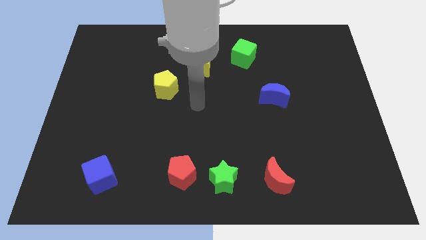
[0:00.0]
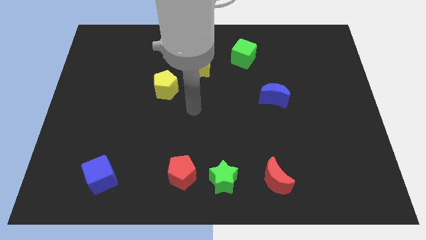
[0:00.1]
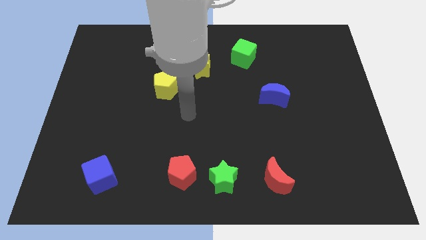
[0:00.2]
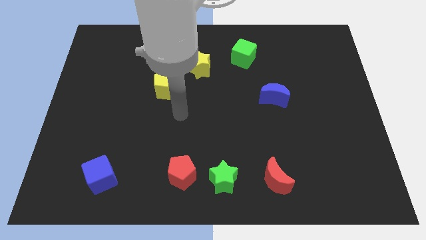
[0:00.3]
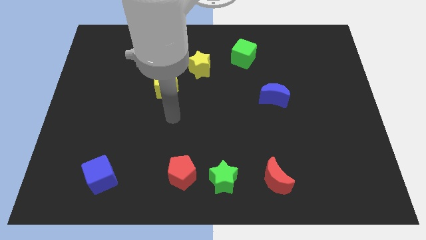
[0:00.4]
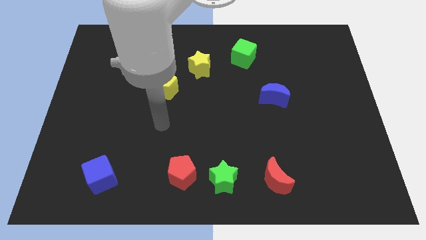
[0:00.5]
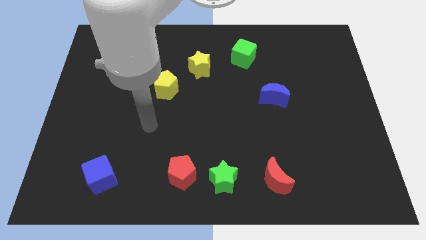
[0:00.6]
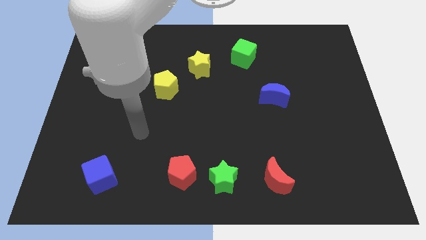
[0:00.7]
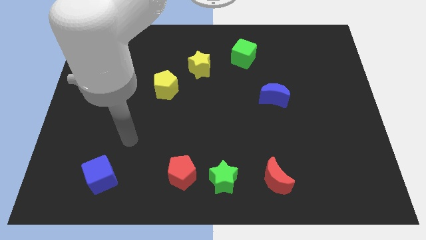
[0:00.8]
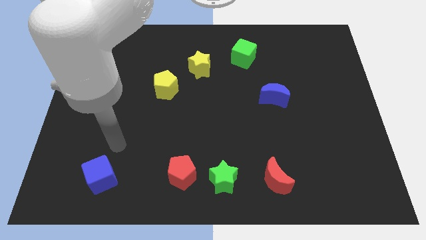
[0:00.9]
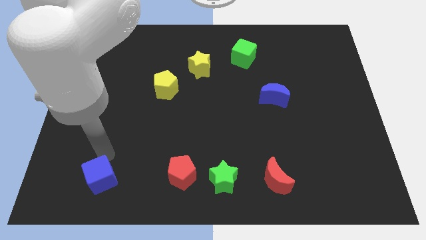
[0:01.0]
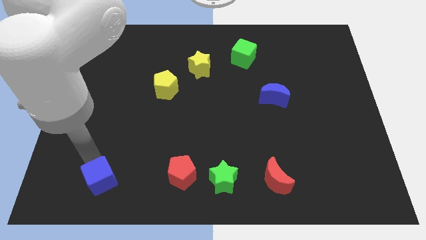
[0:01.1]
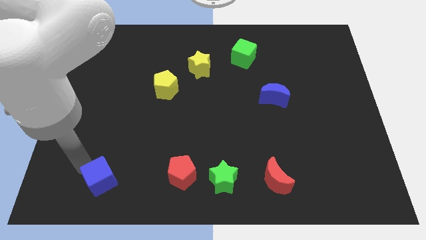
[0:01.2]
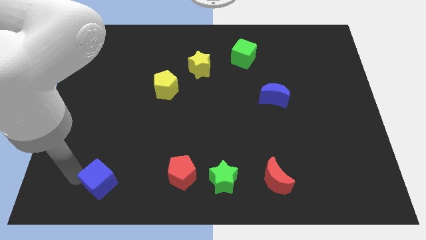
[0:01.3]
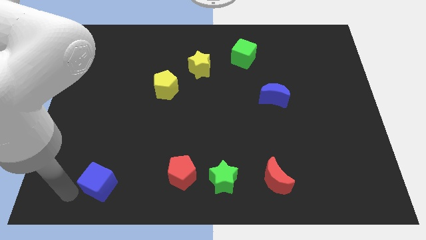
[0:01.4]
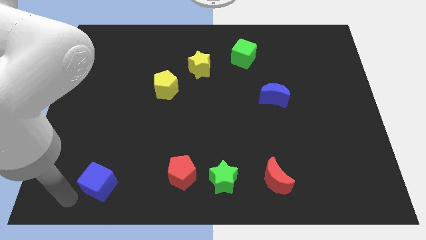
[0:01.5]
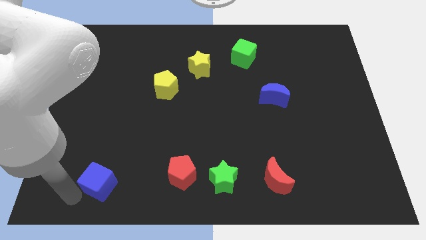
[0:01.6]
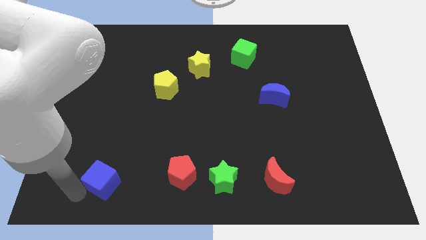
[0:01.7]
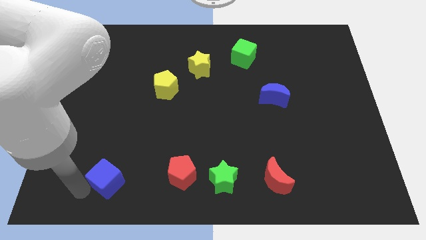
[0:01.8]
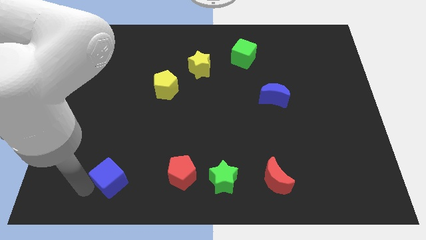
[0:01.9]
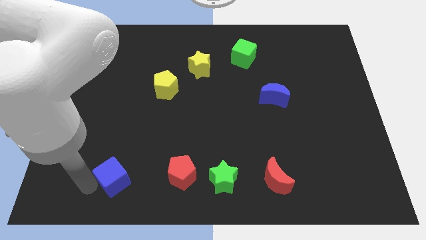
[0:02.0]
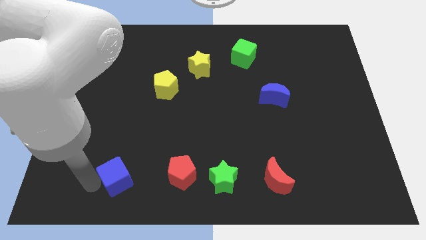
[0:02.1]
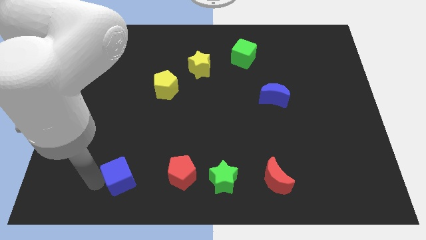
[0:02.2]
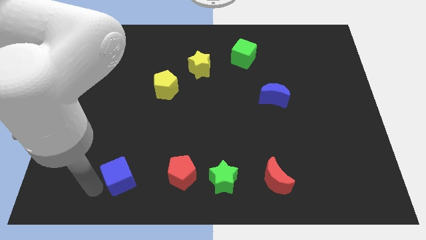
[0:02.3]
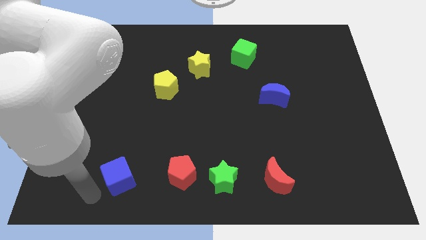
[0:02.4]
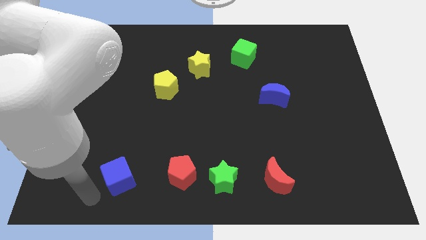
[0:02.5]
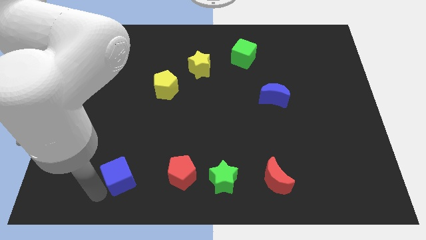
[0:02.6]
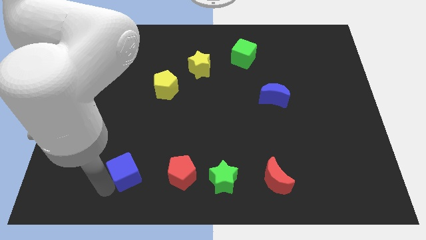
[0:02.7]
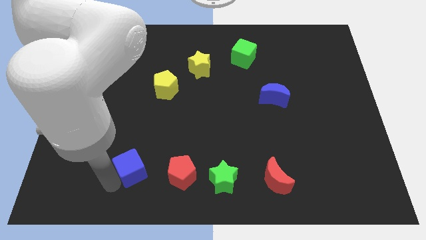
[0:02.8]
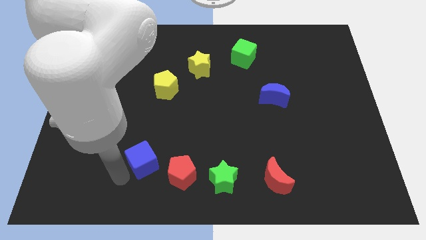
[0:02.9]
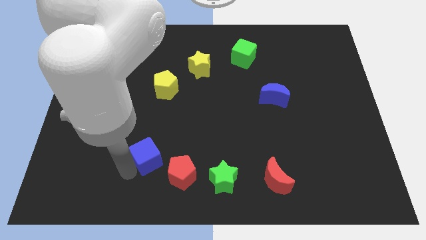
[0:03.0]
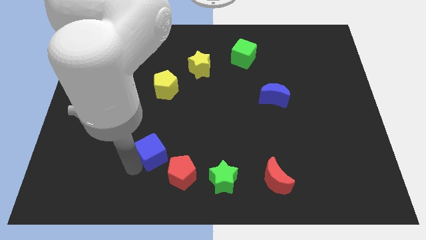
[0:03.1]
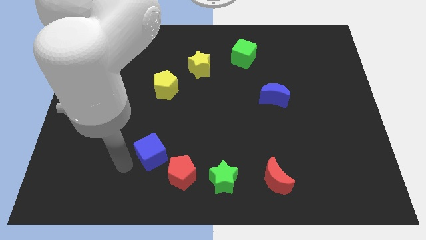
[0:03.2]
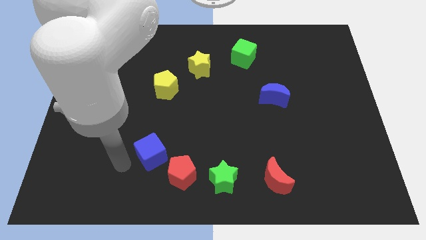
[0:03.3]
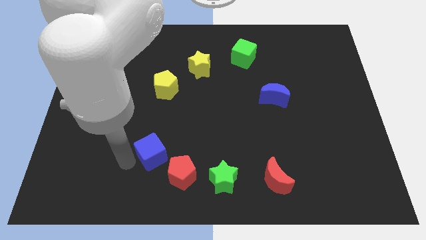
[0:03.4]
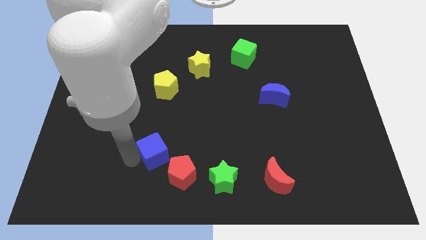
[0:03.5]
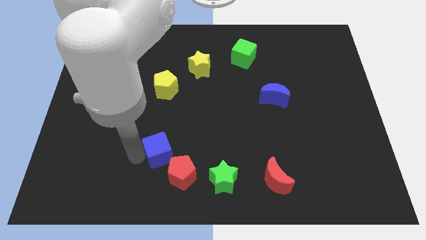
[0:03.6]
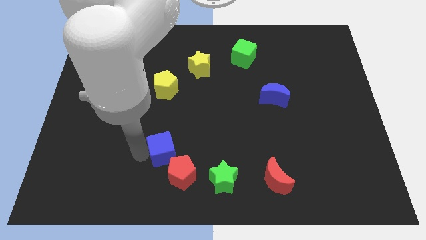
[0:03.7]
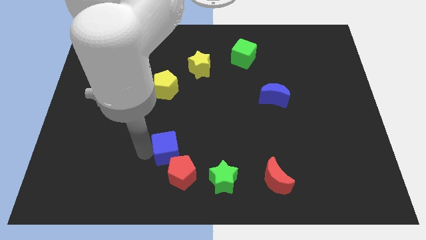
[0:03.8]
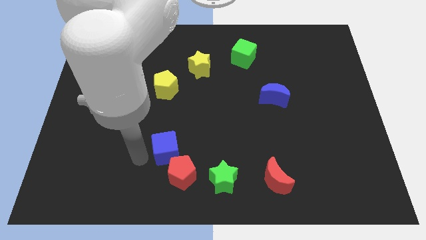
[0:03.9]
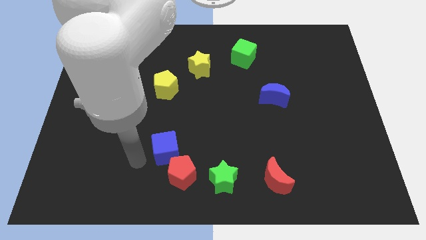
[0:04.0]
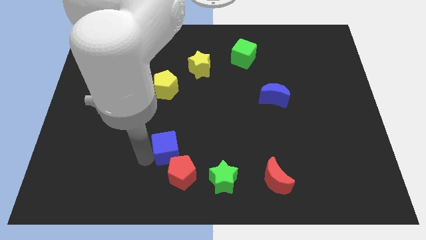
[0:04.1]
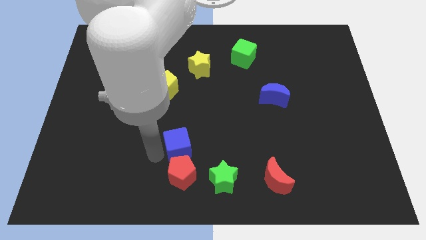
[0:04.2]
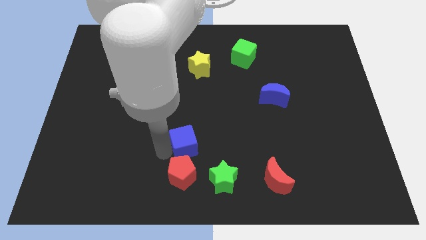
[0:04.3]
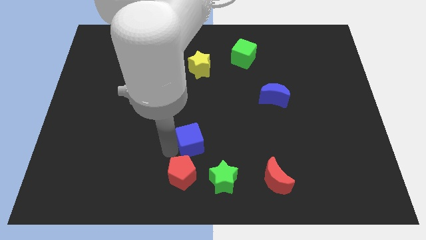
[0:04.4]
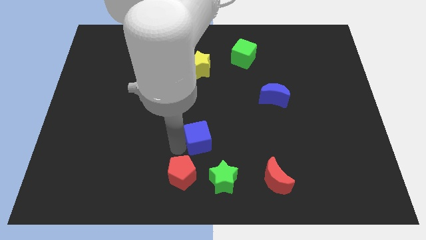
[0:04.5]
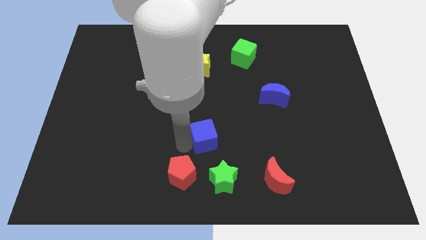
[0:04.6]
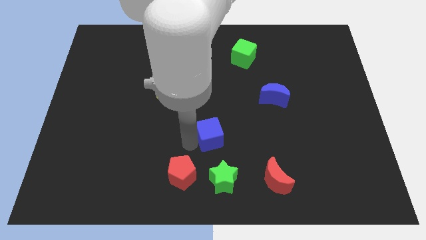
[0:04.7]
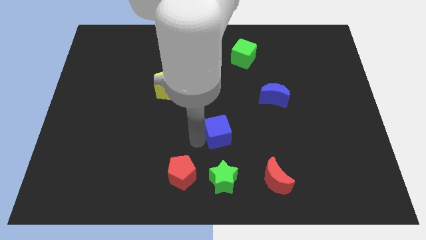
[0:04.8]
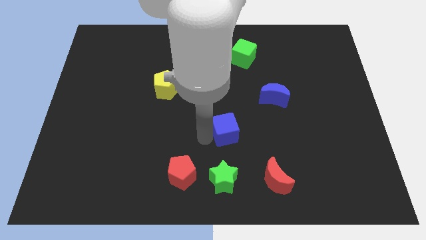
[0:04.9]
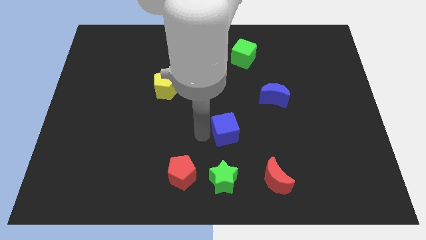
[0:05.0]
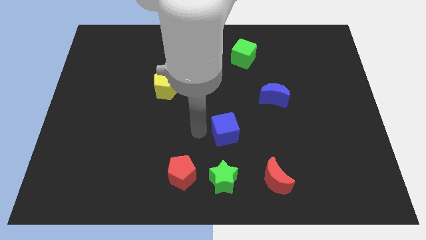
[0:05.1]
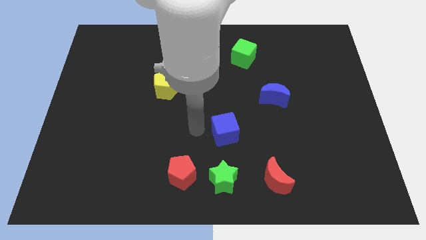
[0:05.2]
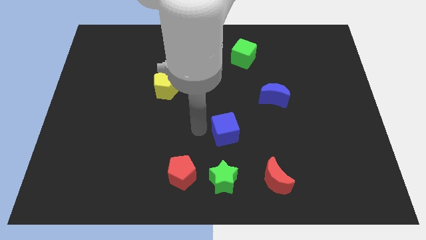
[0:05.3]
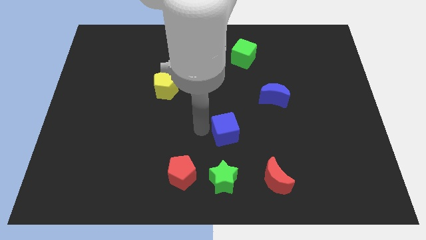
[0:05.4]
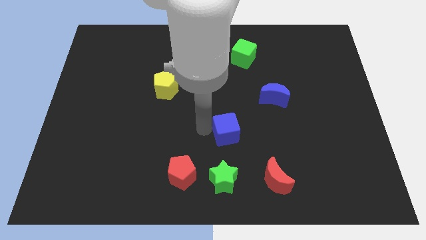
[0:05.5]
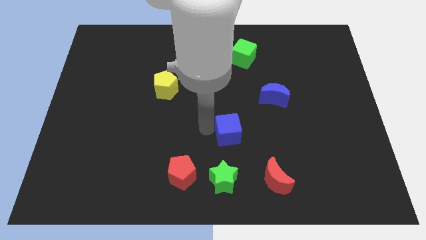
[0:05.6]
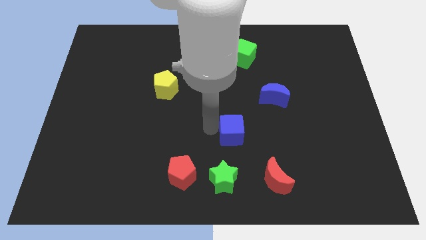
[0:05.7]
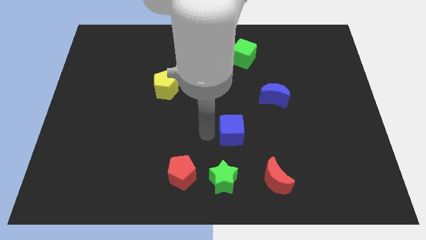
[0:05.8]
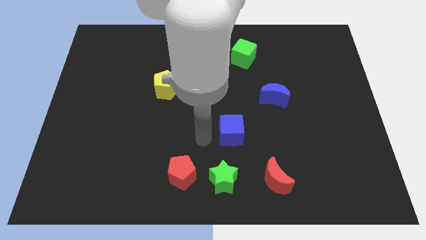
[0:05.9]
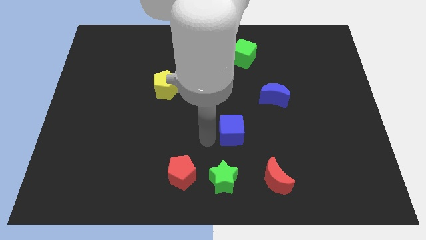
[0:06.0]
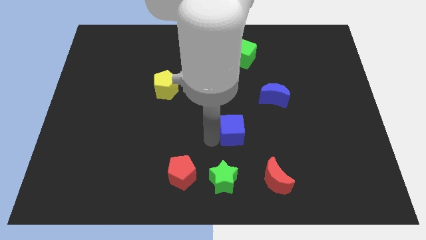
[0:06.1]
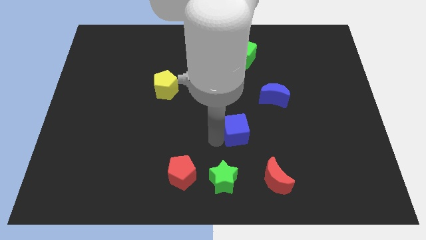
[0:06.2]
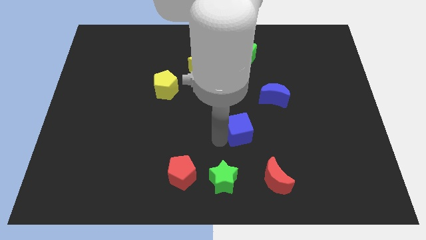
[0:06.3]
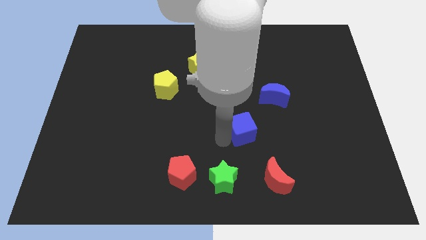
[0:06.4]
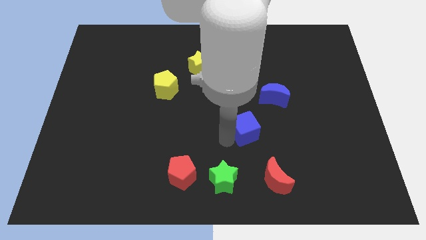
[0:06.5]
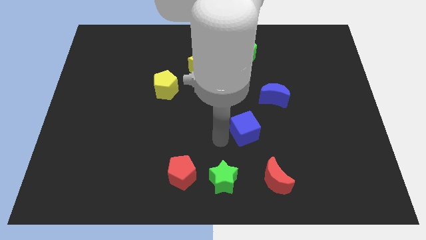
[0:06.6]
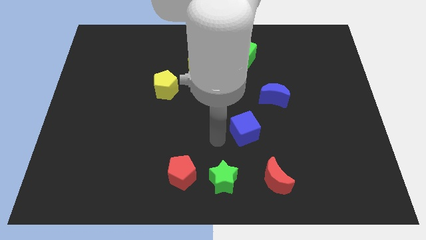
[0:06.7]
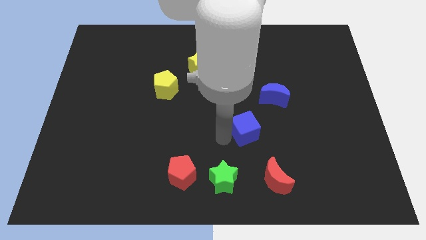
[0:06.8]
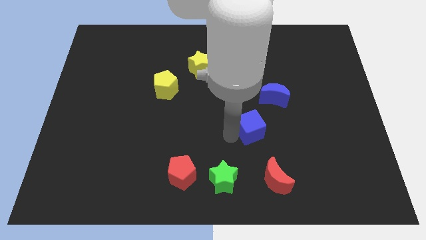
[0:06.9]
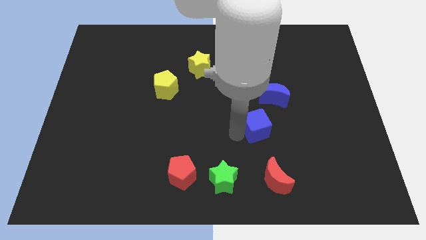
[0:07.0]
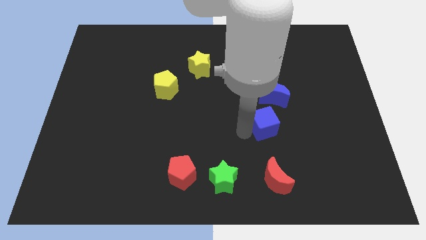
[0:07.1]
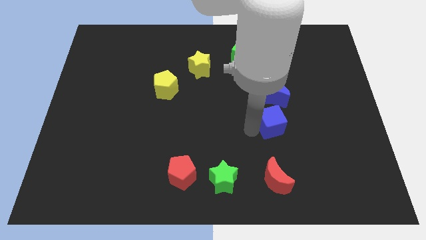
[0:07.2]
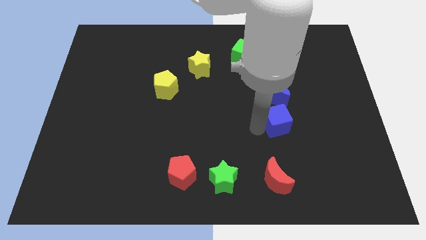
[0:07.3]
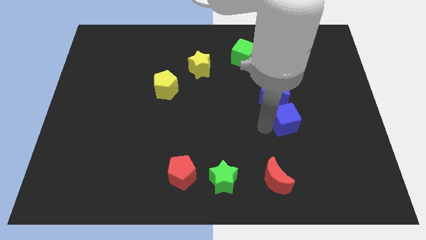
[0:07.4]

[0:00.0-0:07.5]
slide the blue cube diagonally down and to the right of the blue moon
